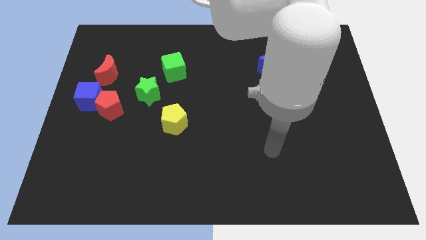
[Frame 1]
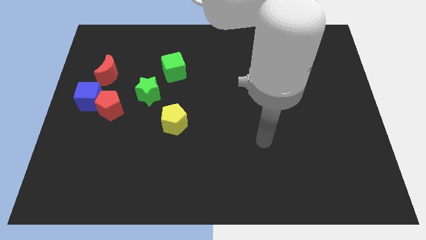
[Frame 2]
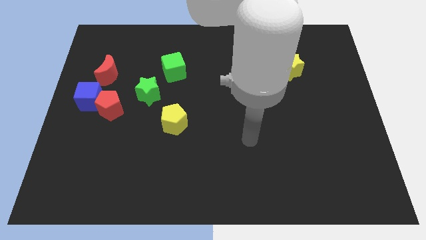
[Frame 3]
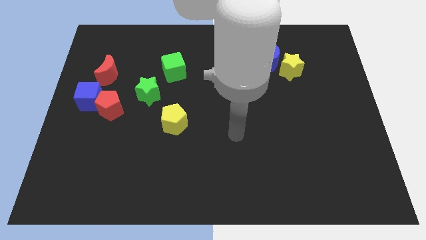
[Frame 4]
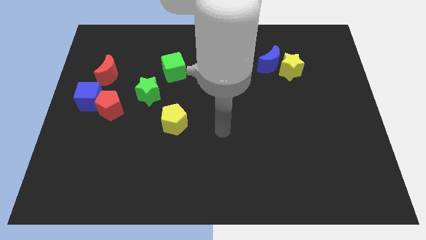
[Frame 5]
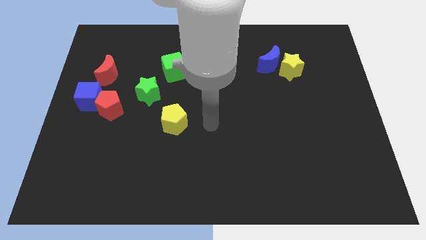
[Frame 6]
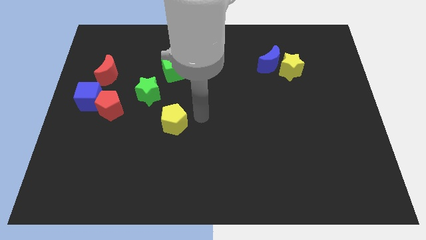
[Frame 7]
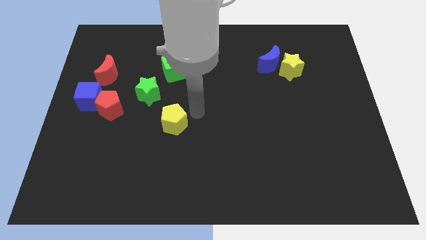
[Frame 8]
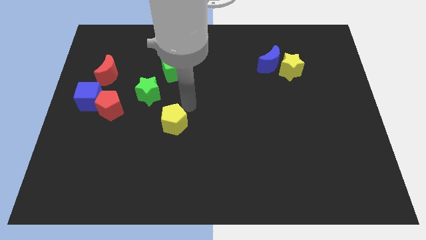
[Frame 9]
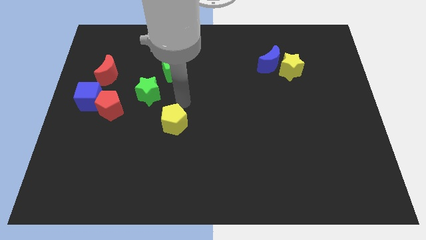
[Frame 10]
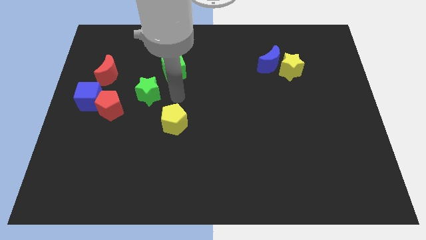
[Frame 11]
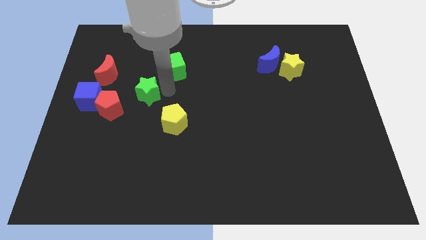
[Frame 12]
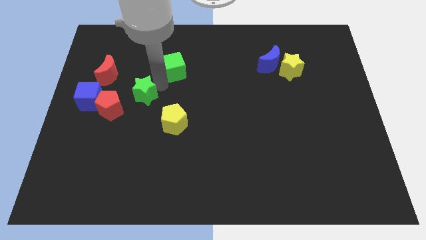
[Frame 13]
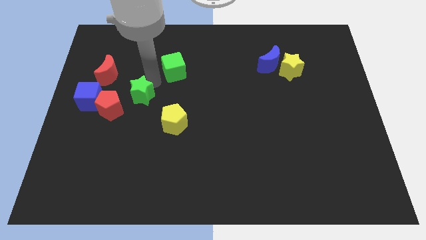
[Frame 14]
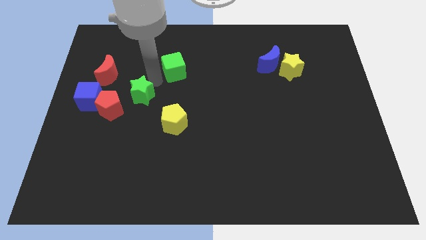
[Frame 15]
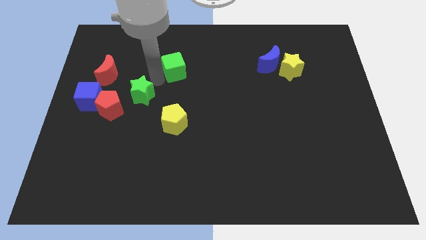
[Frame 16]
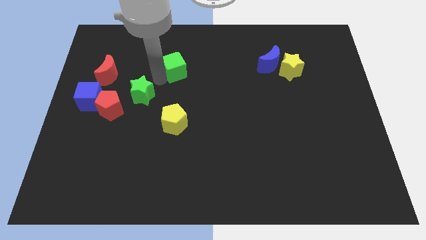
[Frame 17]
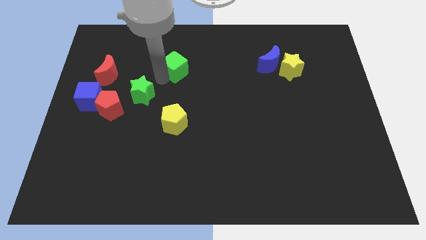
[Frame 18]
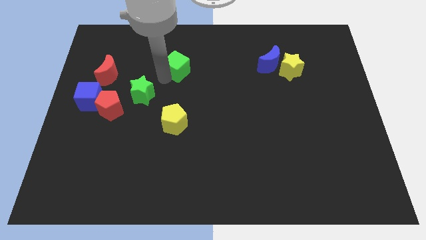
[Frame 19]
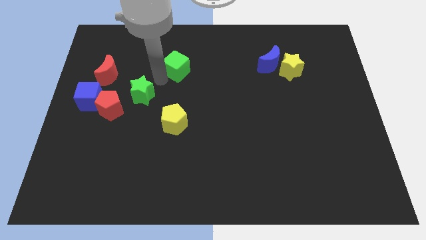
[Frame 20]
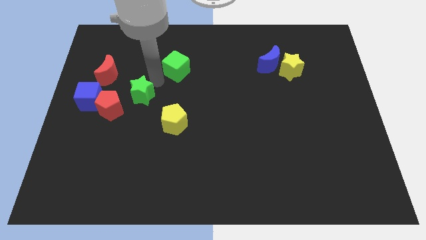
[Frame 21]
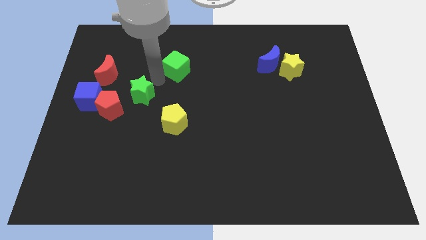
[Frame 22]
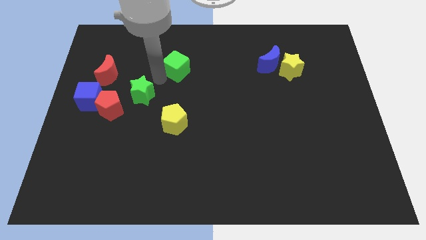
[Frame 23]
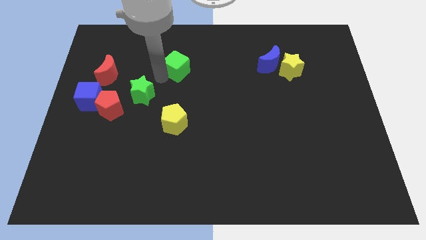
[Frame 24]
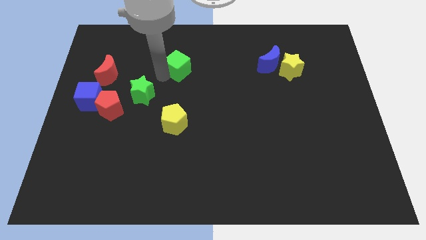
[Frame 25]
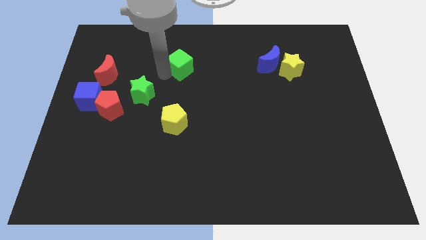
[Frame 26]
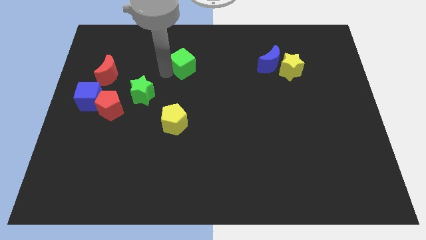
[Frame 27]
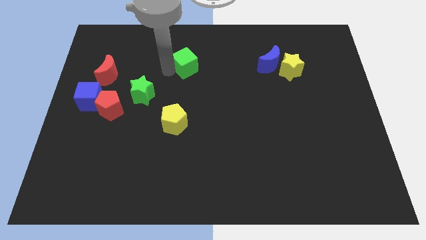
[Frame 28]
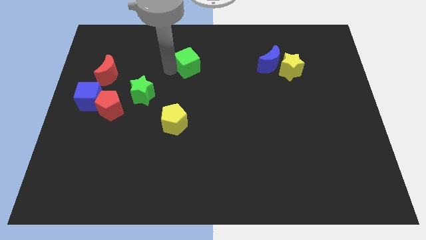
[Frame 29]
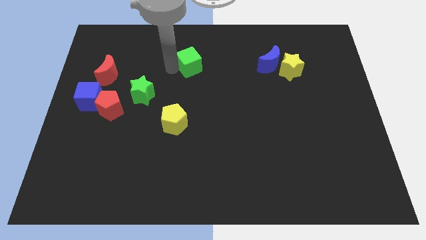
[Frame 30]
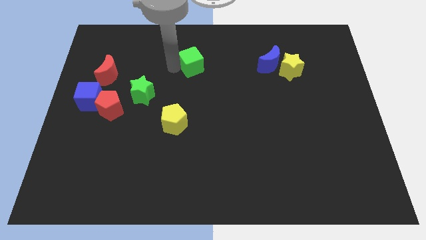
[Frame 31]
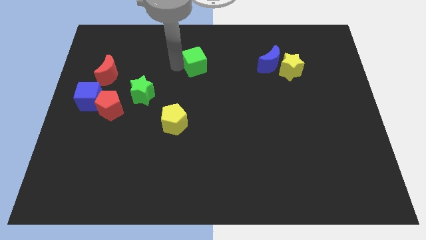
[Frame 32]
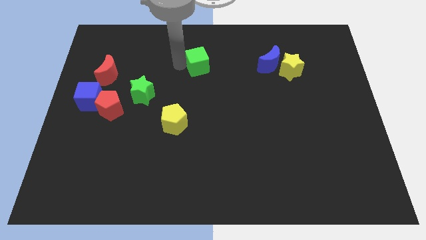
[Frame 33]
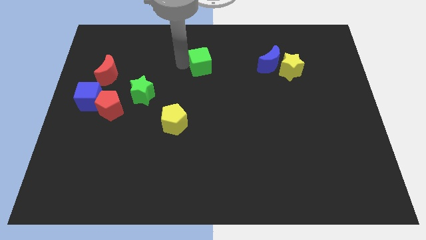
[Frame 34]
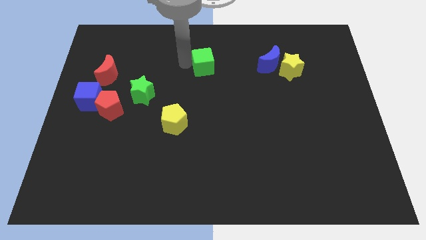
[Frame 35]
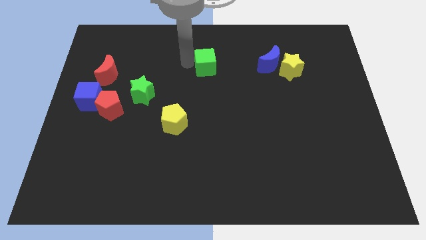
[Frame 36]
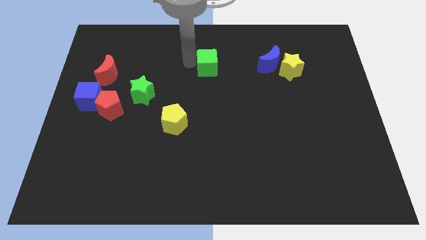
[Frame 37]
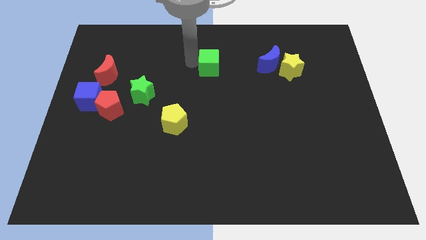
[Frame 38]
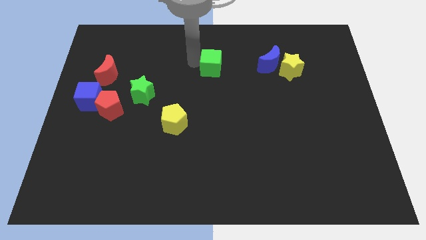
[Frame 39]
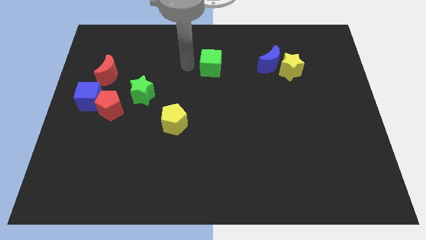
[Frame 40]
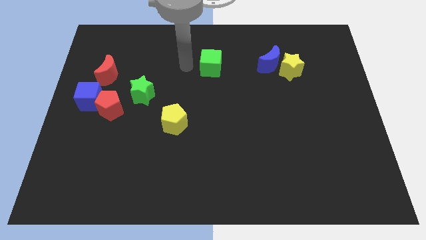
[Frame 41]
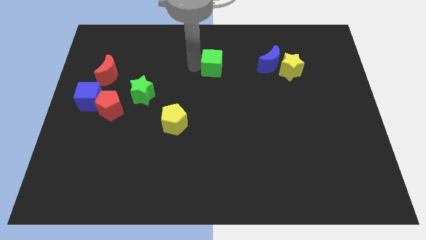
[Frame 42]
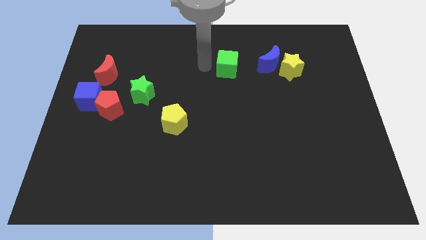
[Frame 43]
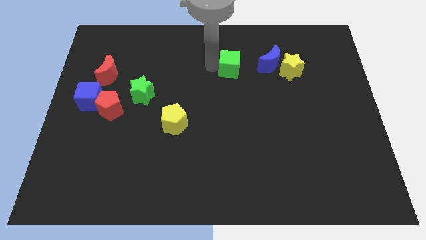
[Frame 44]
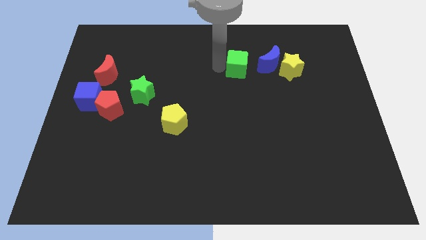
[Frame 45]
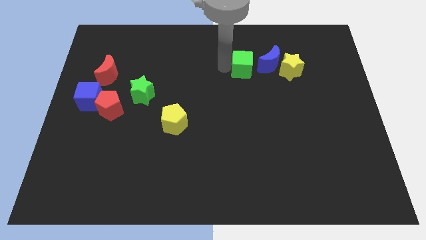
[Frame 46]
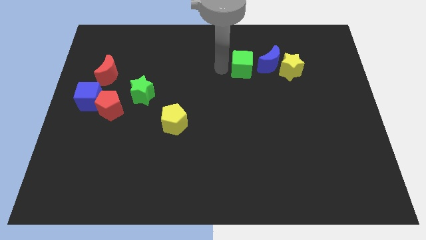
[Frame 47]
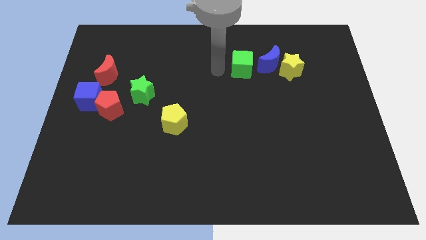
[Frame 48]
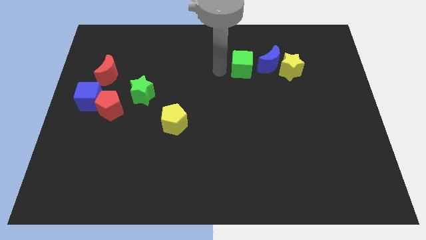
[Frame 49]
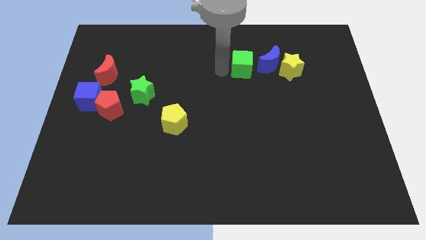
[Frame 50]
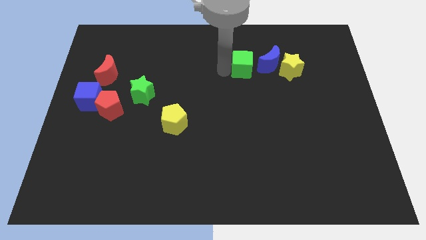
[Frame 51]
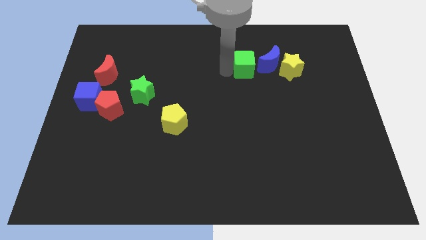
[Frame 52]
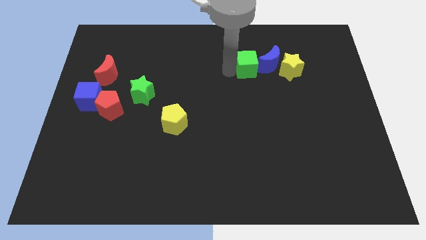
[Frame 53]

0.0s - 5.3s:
push the green cube next to the blue moon

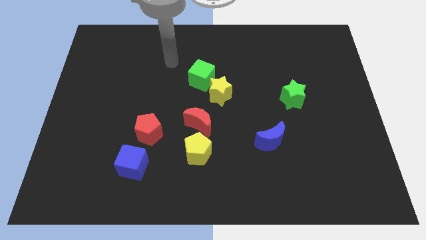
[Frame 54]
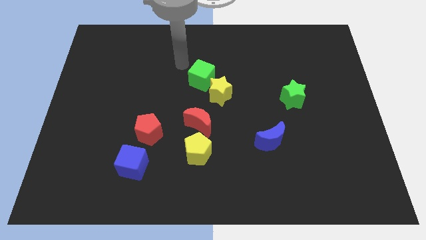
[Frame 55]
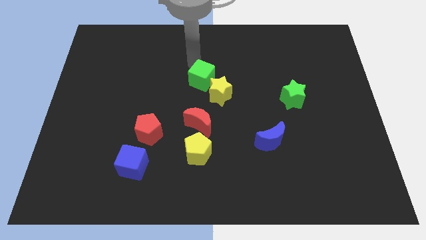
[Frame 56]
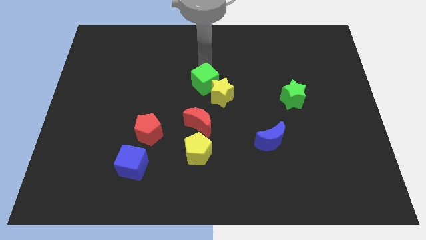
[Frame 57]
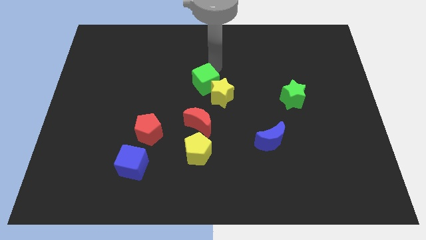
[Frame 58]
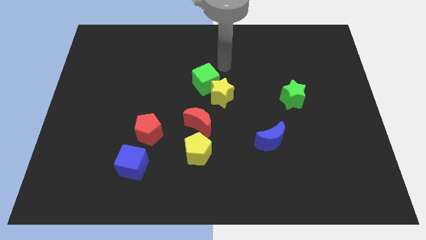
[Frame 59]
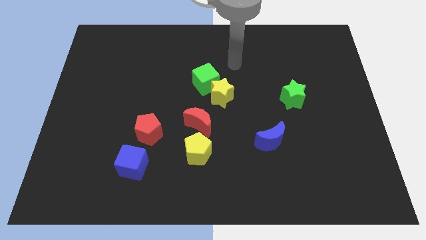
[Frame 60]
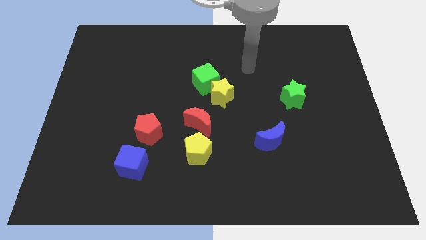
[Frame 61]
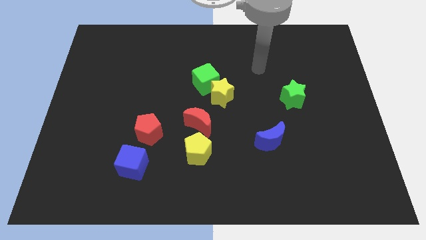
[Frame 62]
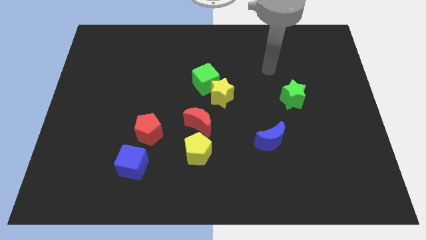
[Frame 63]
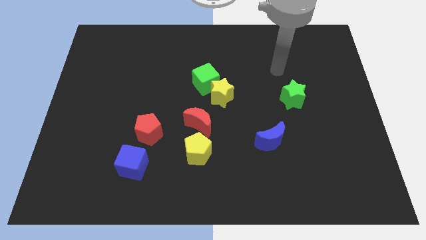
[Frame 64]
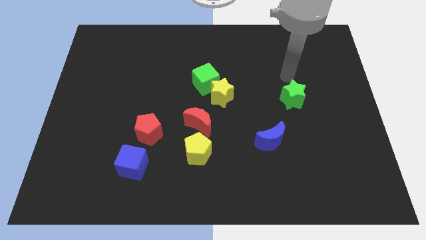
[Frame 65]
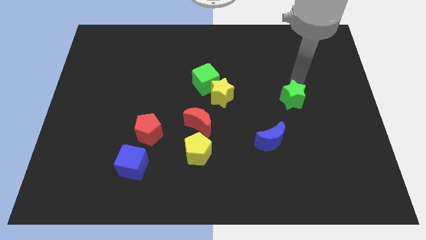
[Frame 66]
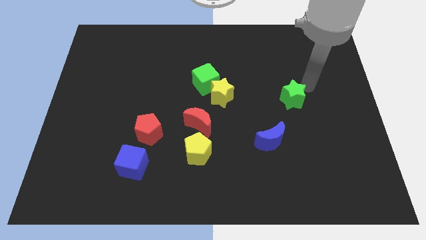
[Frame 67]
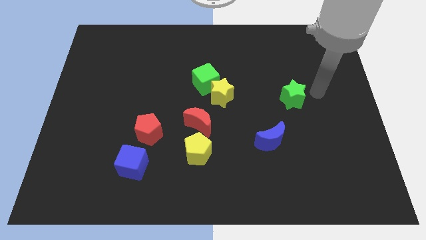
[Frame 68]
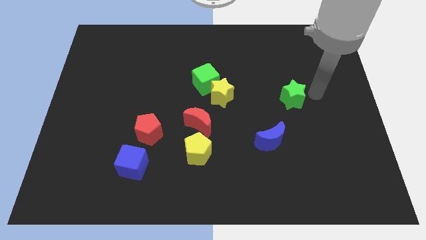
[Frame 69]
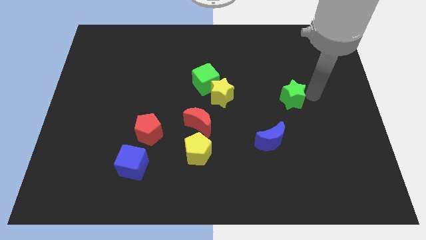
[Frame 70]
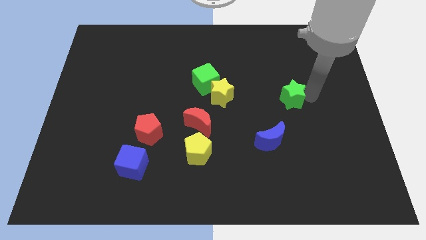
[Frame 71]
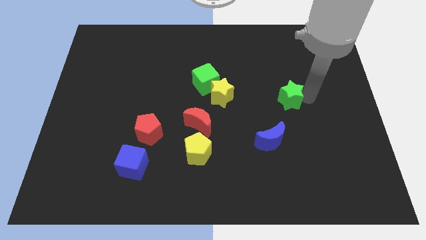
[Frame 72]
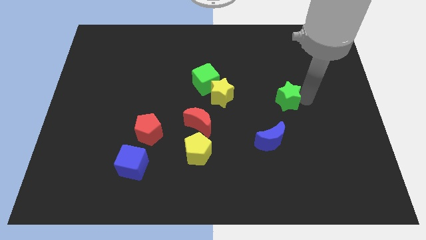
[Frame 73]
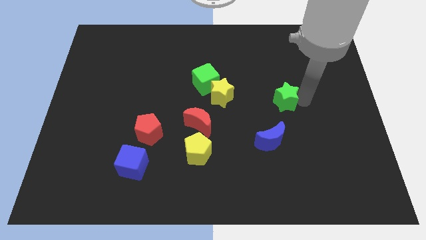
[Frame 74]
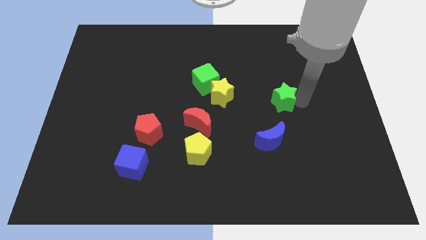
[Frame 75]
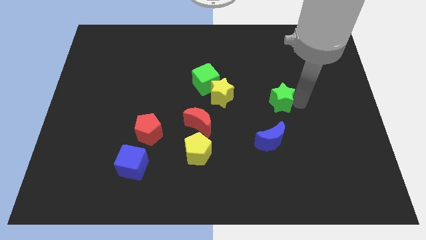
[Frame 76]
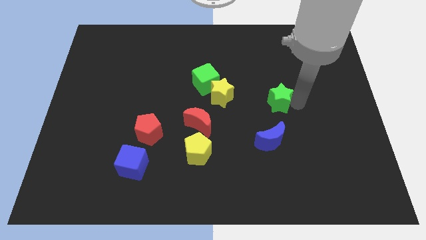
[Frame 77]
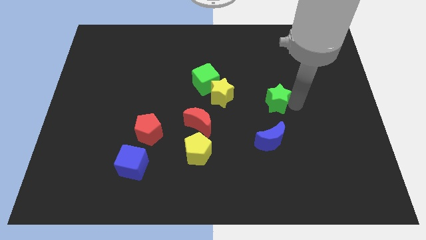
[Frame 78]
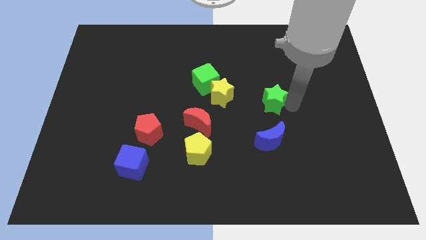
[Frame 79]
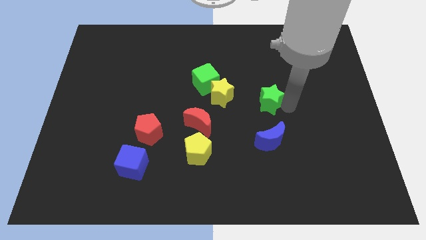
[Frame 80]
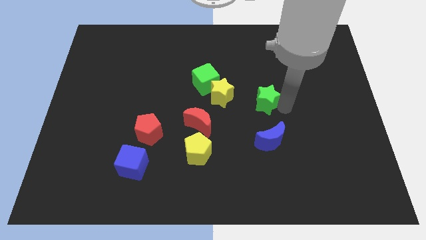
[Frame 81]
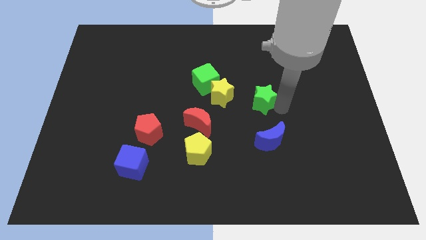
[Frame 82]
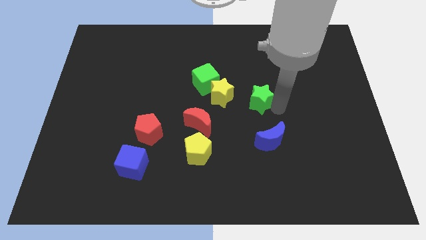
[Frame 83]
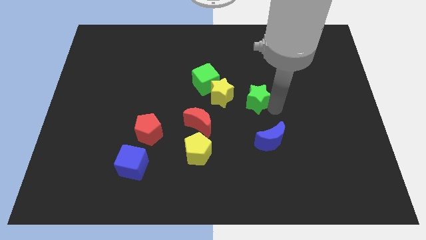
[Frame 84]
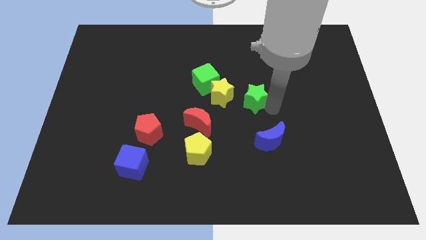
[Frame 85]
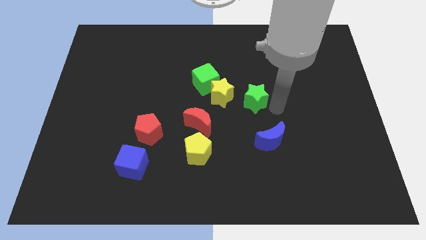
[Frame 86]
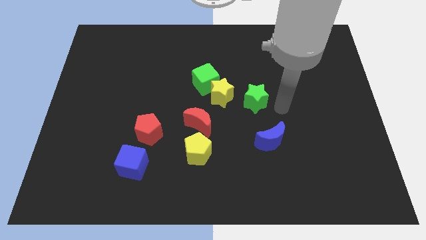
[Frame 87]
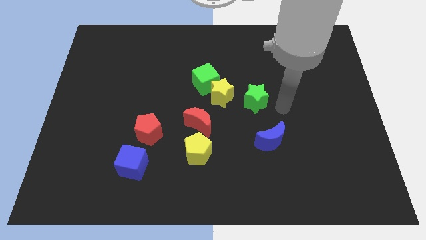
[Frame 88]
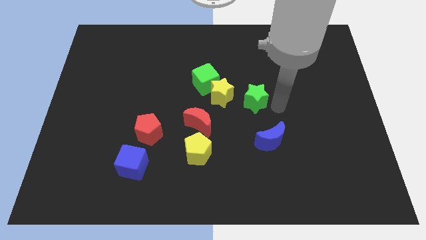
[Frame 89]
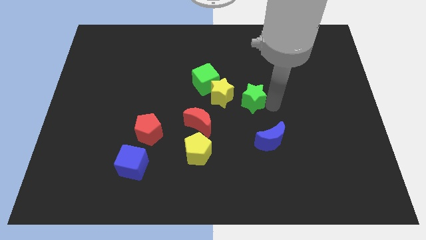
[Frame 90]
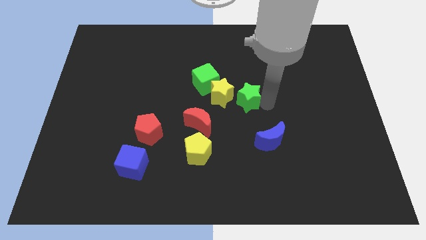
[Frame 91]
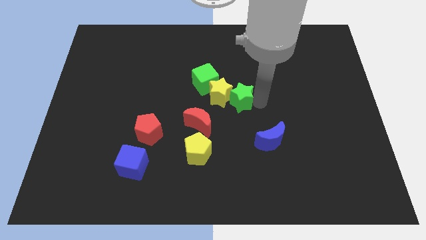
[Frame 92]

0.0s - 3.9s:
move the green star to the yellow star
